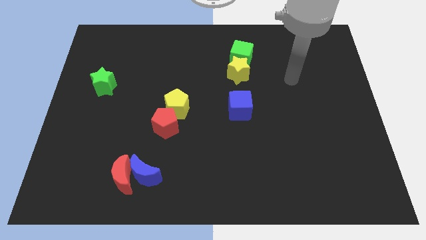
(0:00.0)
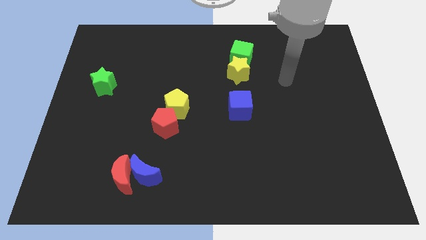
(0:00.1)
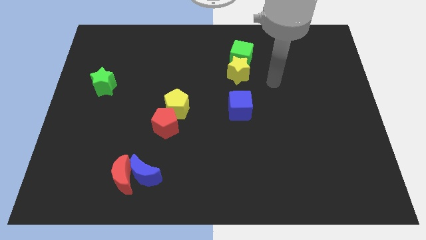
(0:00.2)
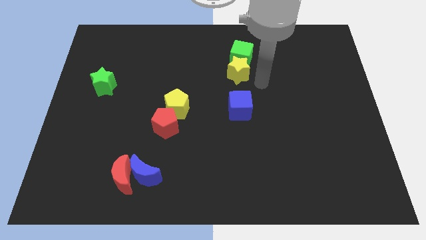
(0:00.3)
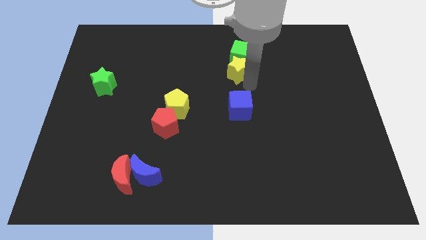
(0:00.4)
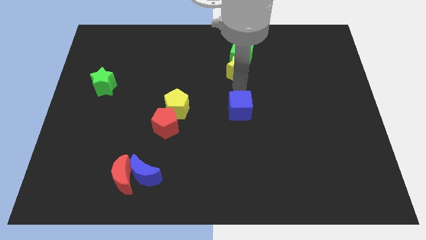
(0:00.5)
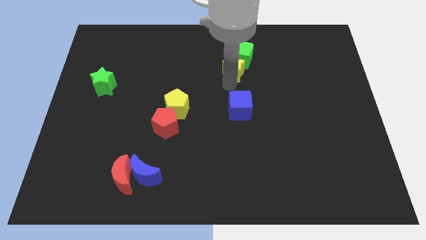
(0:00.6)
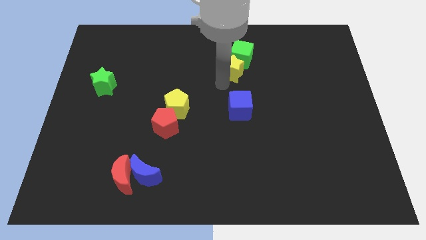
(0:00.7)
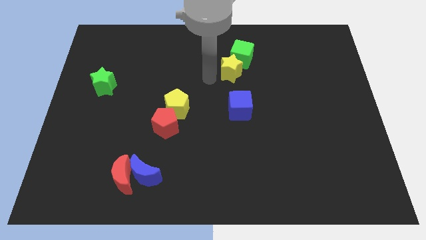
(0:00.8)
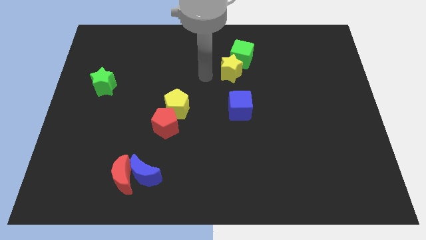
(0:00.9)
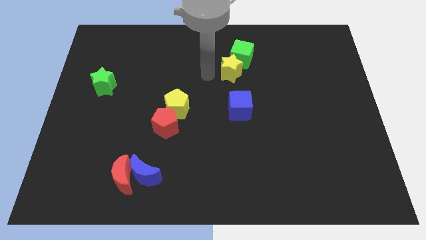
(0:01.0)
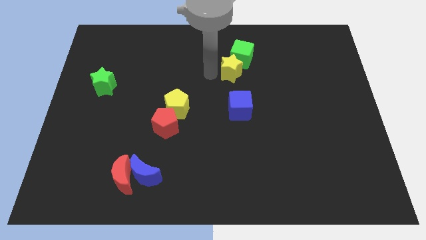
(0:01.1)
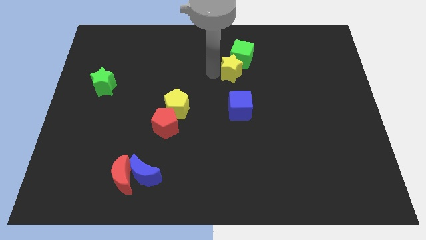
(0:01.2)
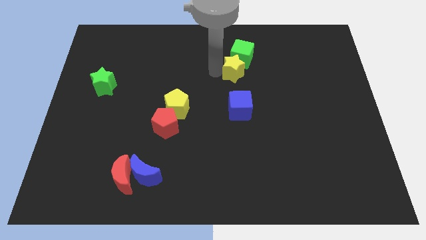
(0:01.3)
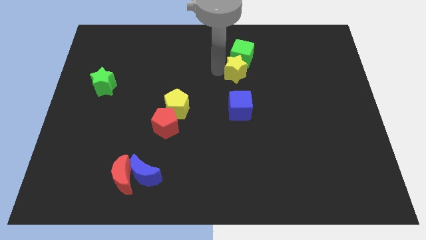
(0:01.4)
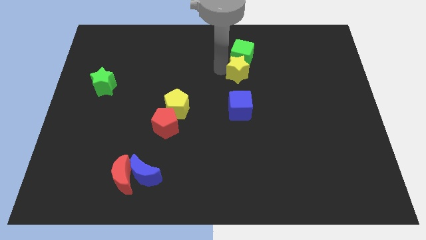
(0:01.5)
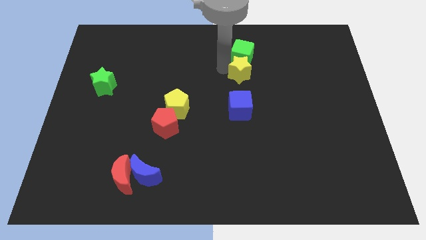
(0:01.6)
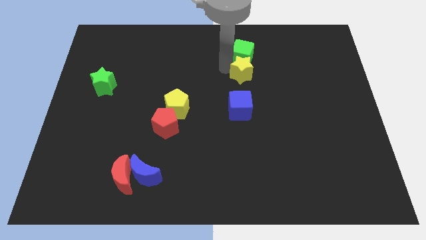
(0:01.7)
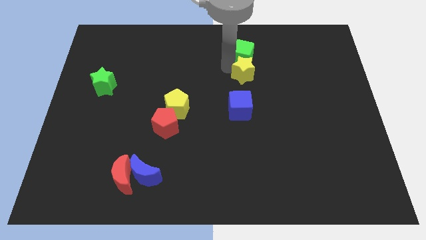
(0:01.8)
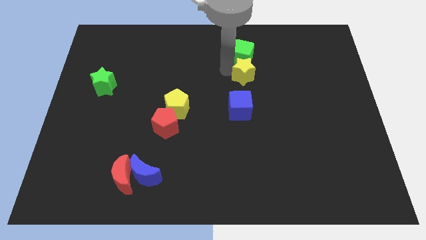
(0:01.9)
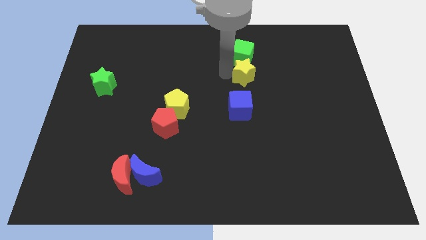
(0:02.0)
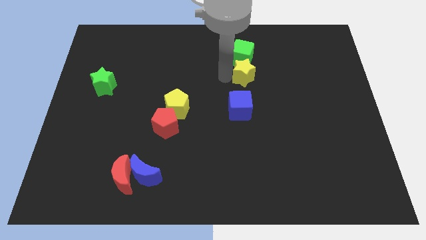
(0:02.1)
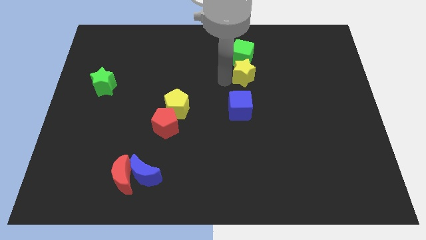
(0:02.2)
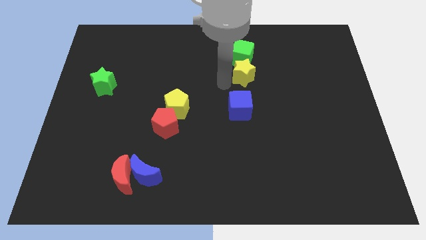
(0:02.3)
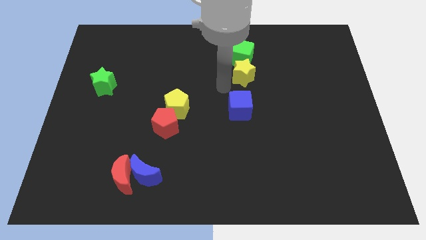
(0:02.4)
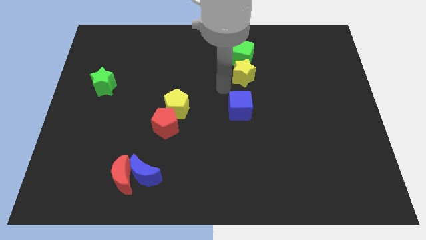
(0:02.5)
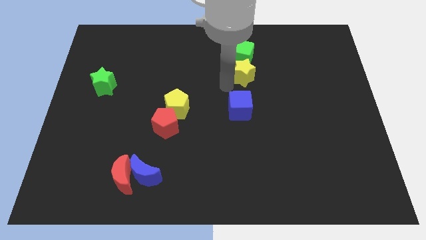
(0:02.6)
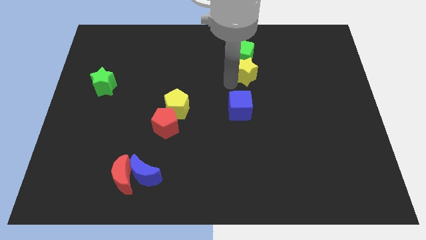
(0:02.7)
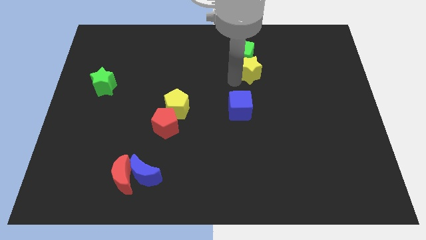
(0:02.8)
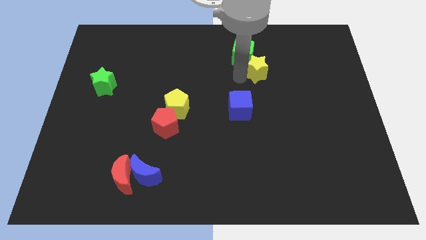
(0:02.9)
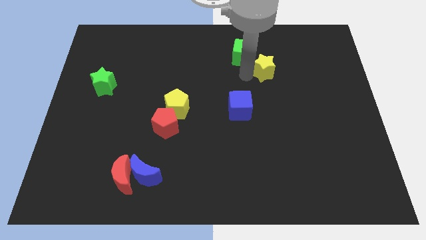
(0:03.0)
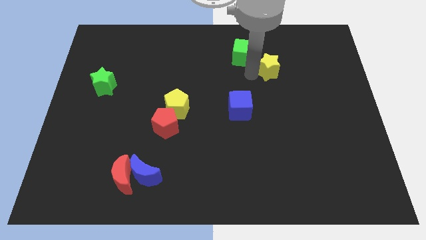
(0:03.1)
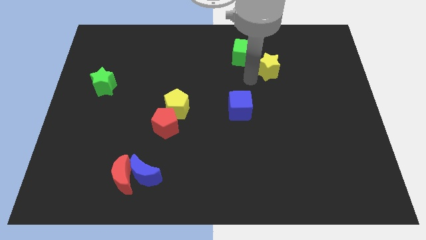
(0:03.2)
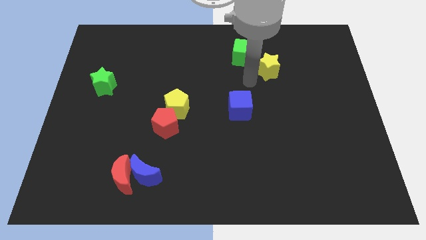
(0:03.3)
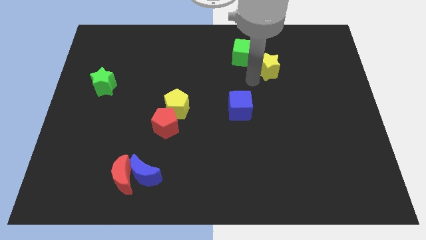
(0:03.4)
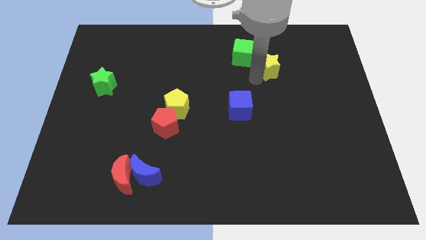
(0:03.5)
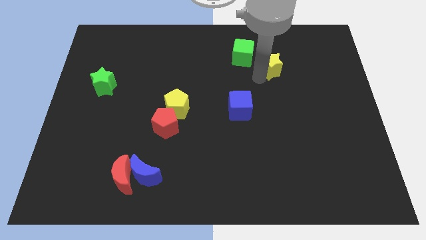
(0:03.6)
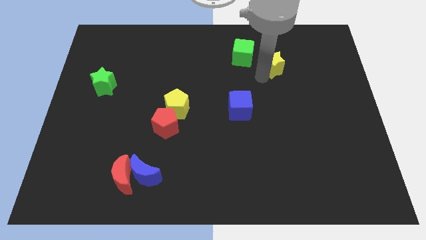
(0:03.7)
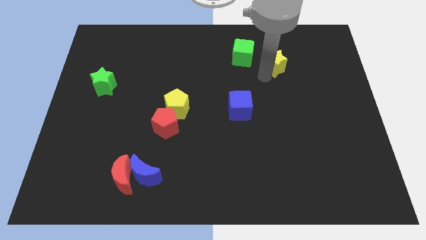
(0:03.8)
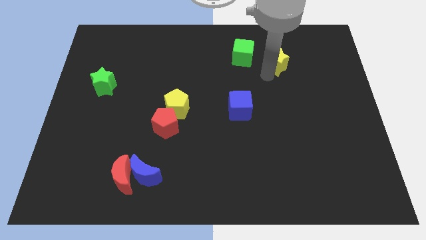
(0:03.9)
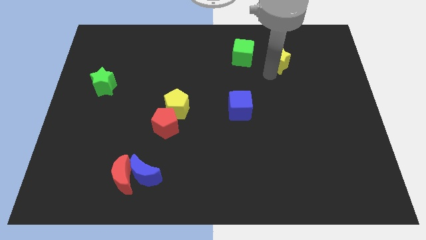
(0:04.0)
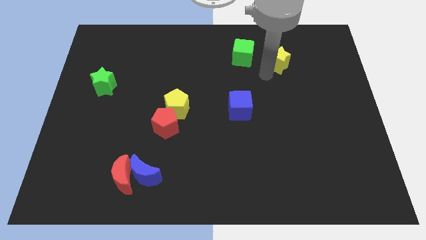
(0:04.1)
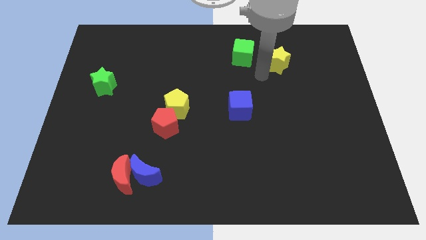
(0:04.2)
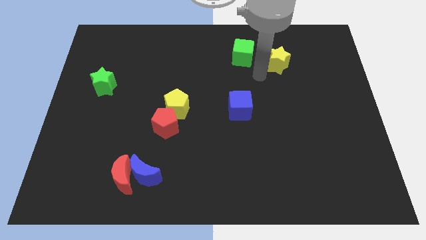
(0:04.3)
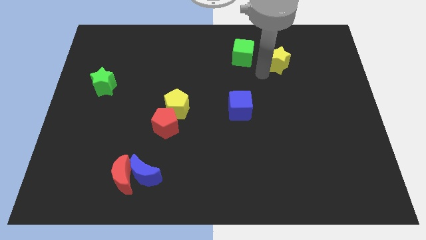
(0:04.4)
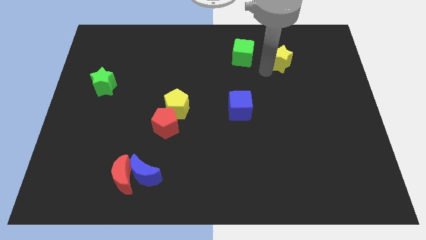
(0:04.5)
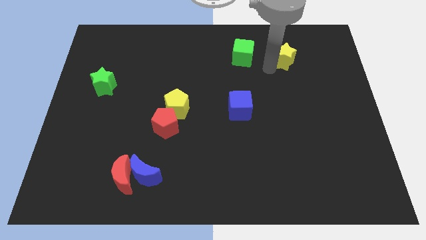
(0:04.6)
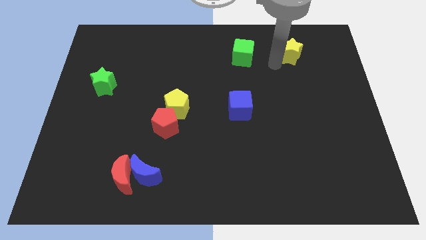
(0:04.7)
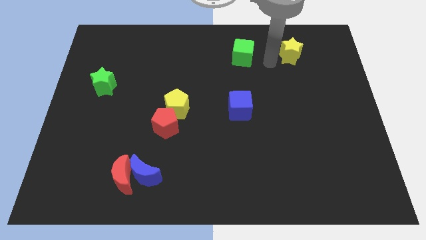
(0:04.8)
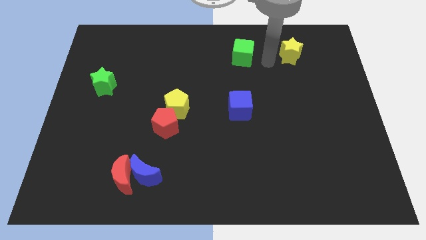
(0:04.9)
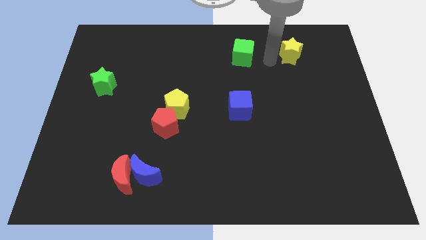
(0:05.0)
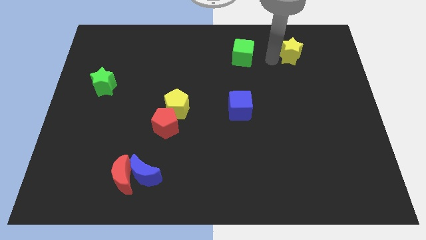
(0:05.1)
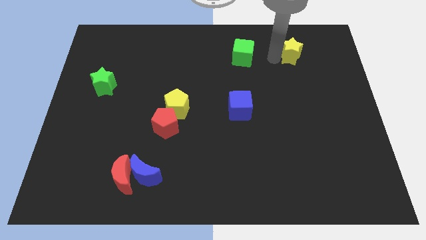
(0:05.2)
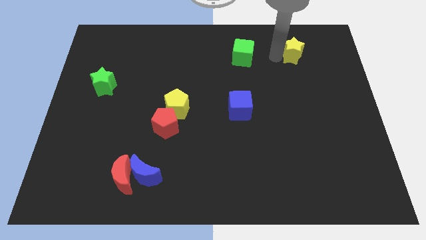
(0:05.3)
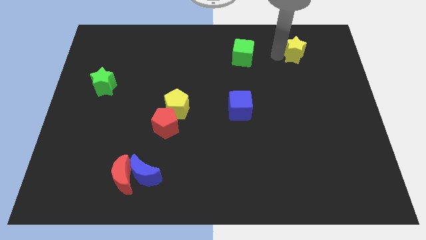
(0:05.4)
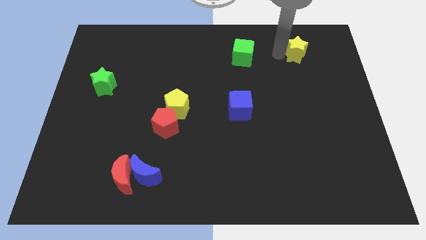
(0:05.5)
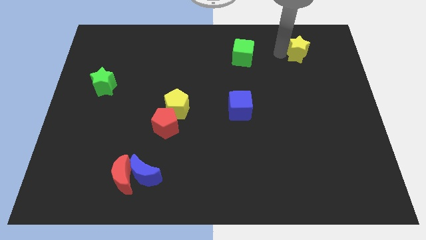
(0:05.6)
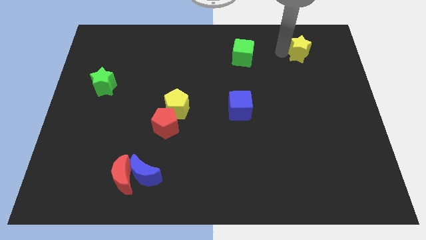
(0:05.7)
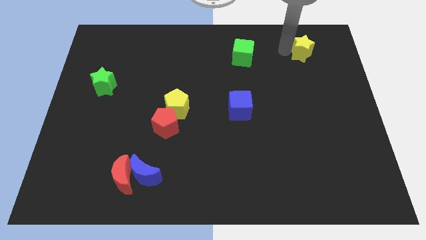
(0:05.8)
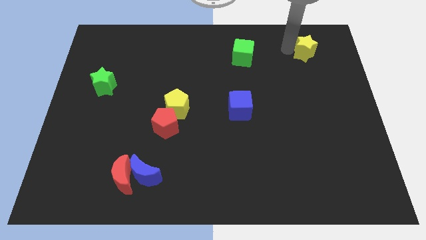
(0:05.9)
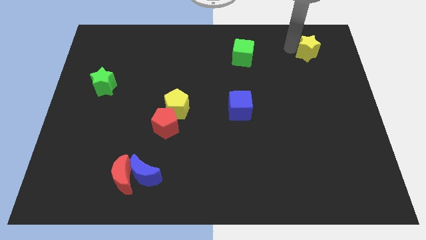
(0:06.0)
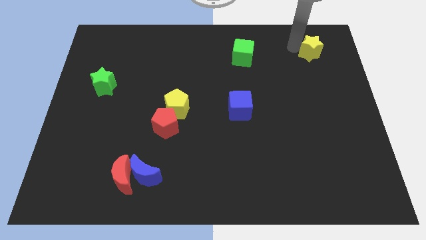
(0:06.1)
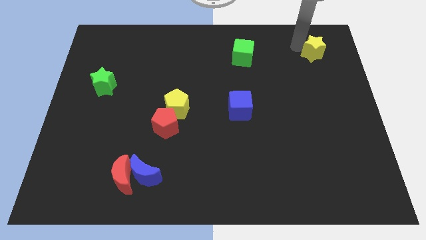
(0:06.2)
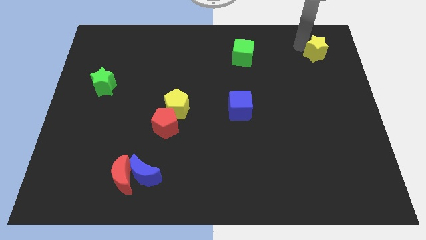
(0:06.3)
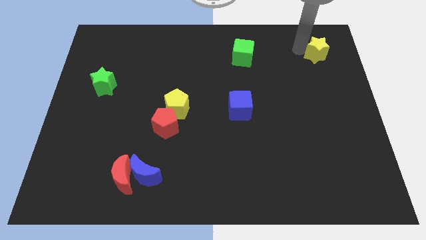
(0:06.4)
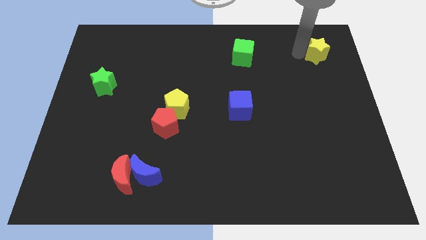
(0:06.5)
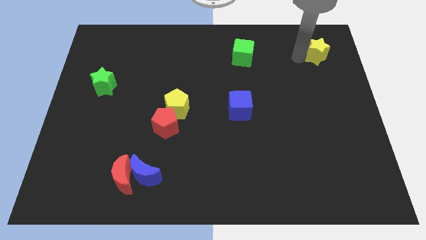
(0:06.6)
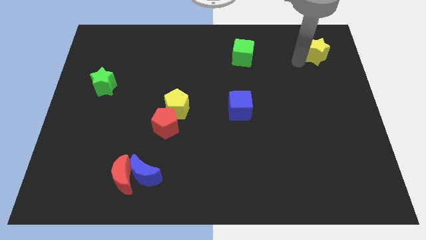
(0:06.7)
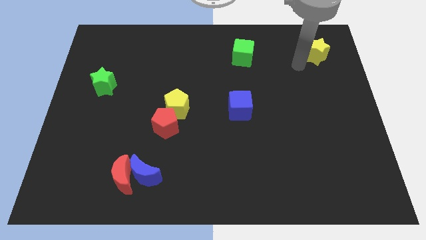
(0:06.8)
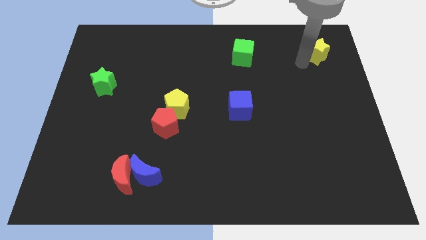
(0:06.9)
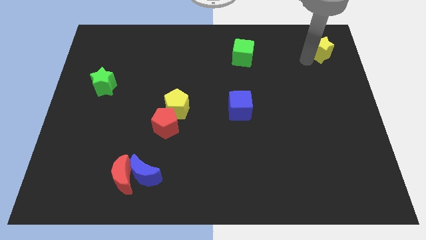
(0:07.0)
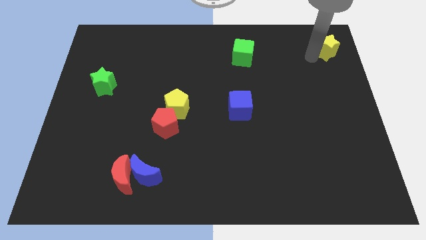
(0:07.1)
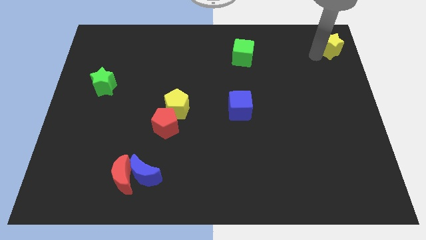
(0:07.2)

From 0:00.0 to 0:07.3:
slide the yellow star to the top right corner
